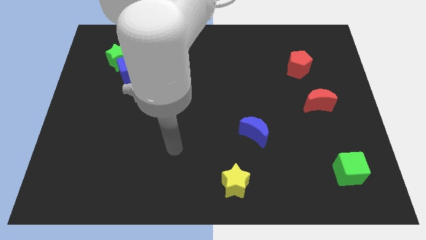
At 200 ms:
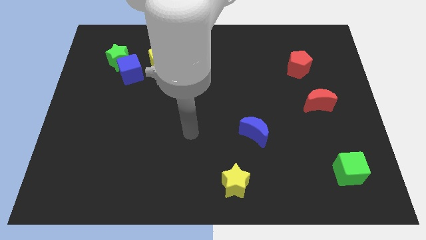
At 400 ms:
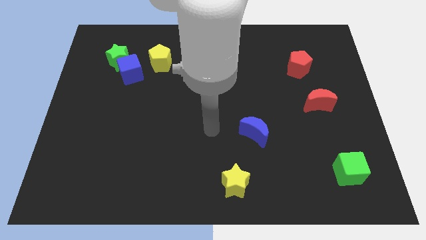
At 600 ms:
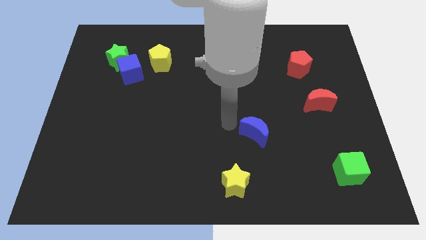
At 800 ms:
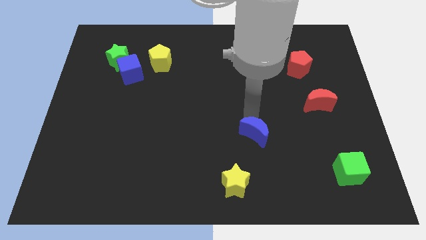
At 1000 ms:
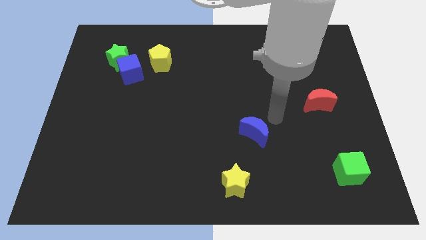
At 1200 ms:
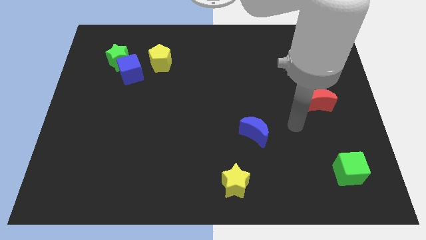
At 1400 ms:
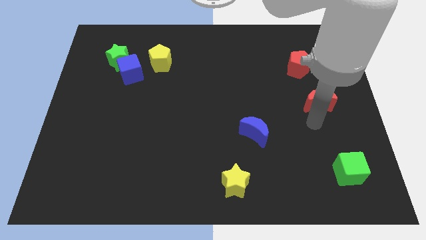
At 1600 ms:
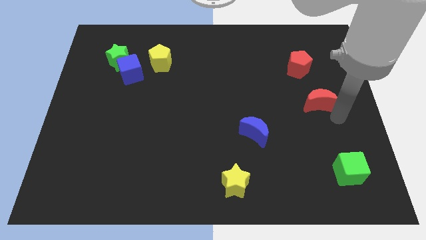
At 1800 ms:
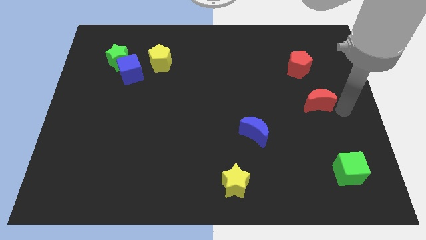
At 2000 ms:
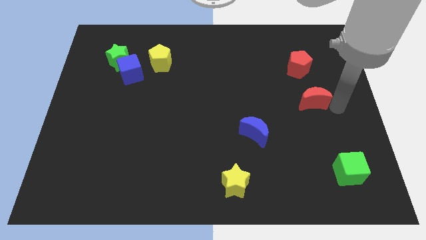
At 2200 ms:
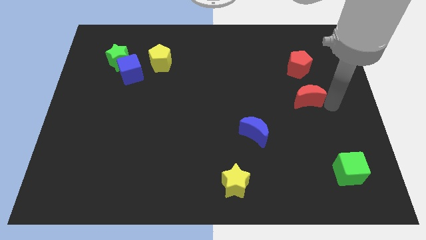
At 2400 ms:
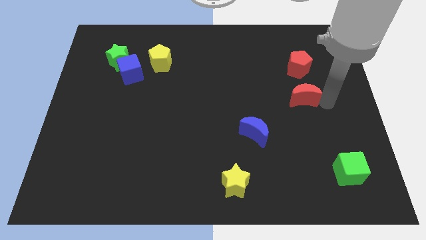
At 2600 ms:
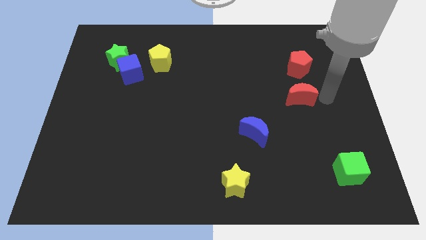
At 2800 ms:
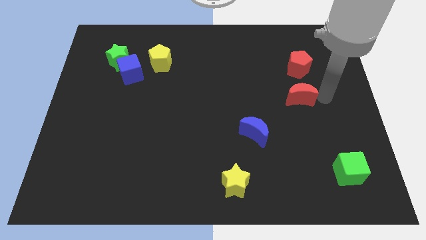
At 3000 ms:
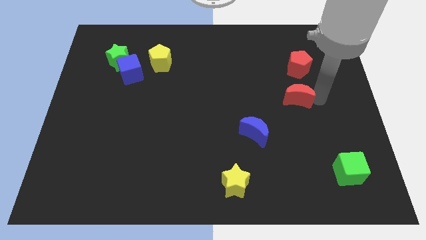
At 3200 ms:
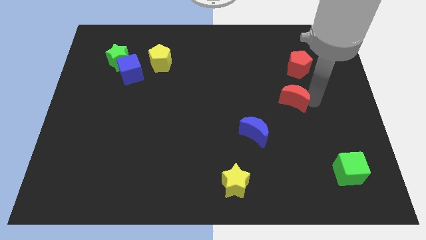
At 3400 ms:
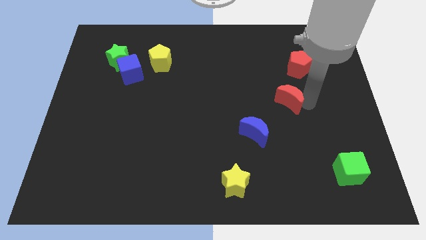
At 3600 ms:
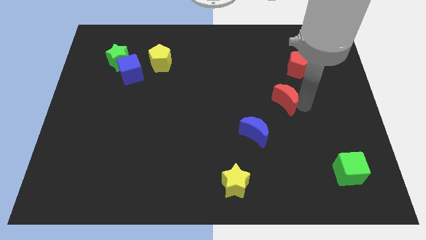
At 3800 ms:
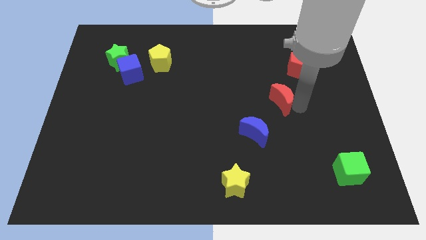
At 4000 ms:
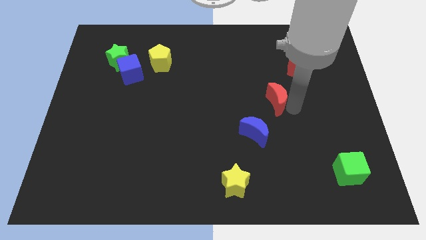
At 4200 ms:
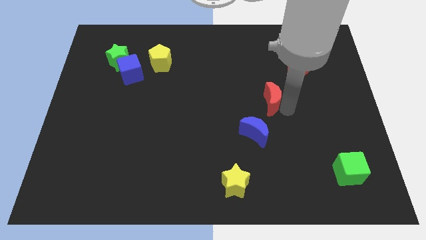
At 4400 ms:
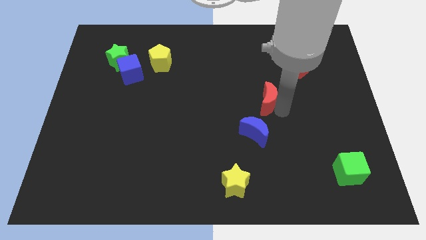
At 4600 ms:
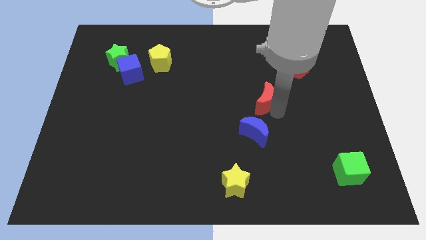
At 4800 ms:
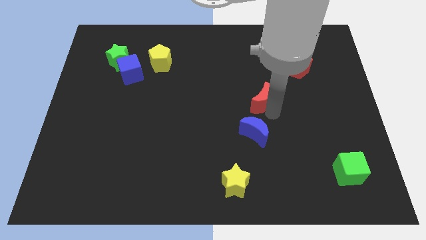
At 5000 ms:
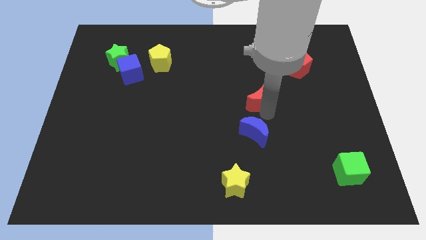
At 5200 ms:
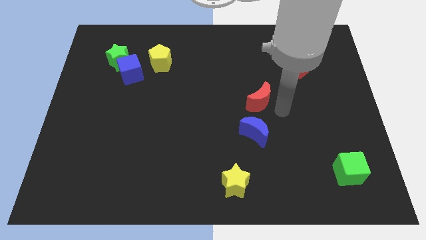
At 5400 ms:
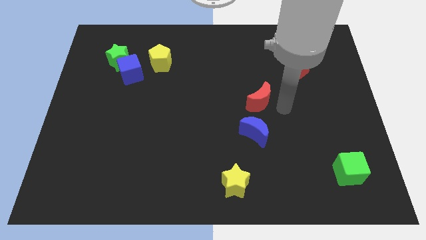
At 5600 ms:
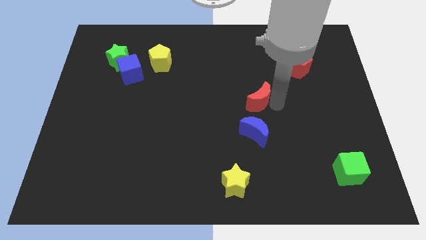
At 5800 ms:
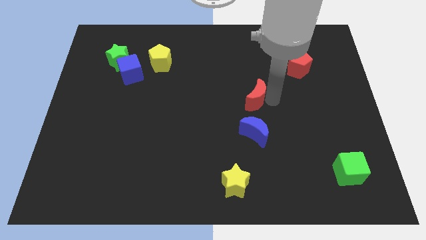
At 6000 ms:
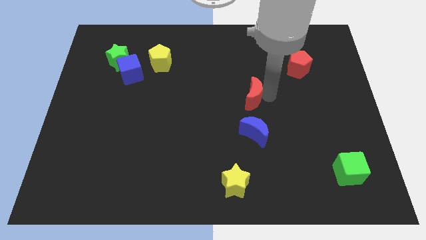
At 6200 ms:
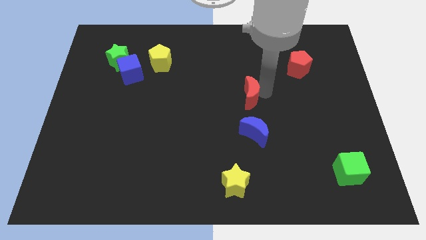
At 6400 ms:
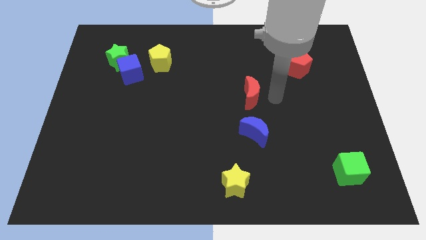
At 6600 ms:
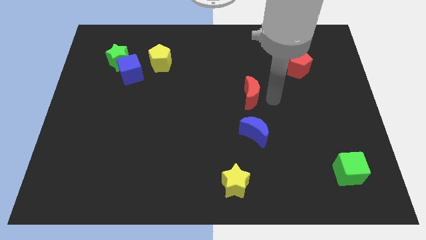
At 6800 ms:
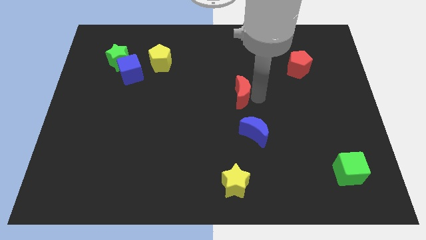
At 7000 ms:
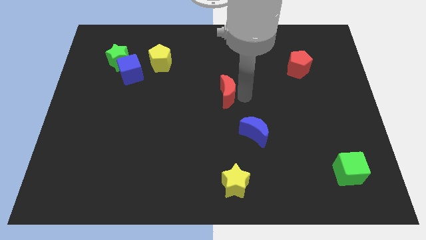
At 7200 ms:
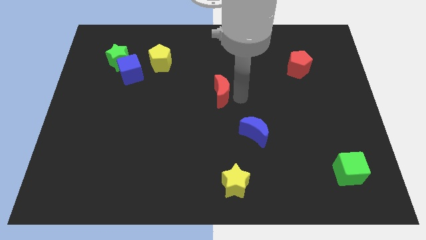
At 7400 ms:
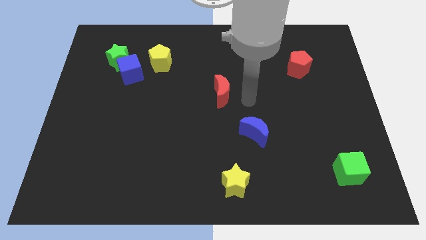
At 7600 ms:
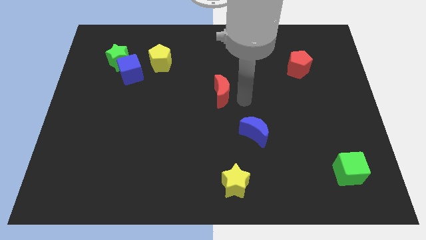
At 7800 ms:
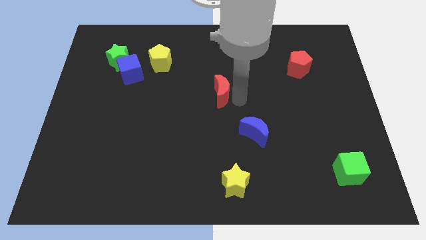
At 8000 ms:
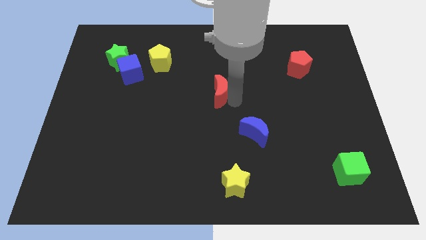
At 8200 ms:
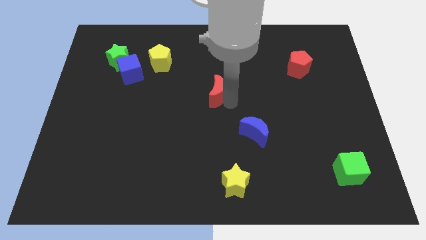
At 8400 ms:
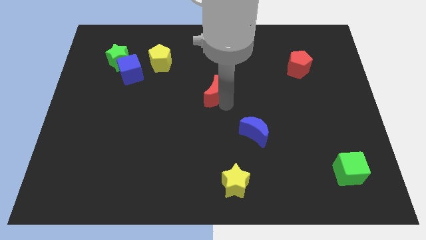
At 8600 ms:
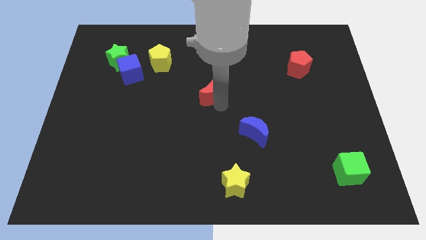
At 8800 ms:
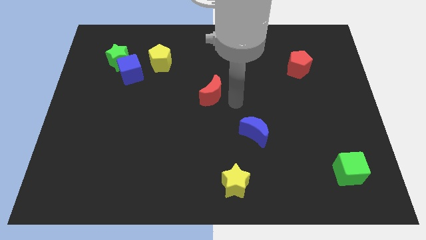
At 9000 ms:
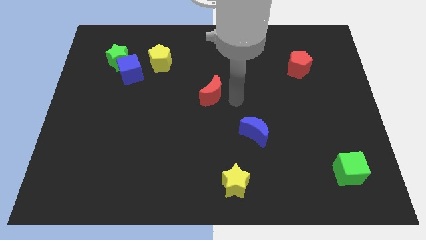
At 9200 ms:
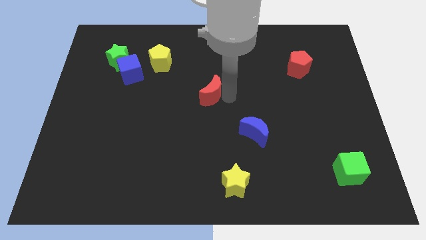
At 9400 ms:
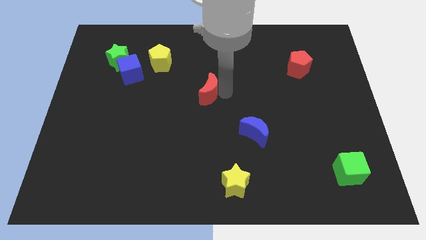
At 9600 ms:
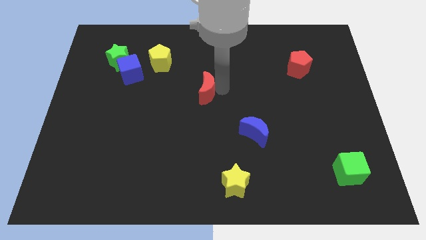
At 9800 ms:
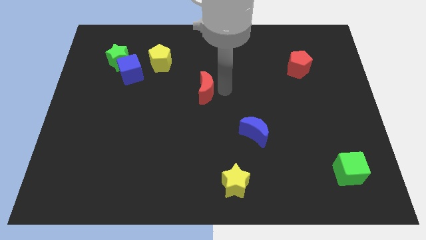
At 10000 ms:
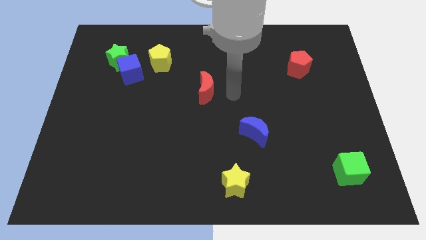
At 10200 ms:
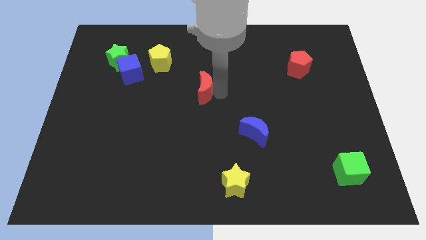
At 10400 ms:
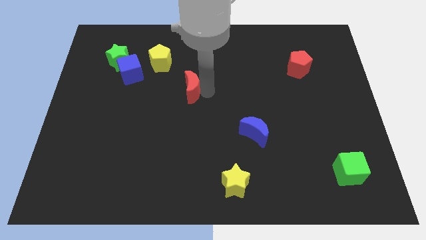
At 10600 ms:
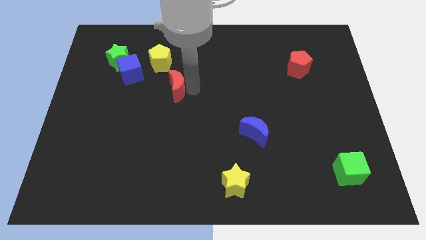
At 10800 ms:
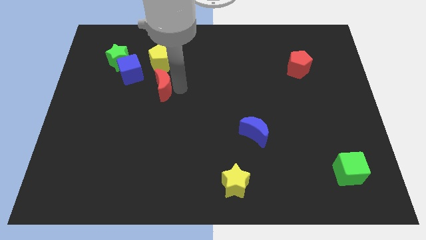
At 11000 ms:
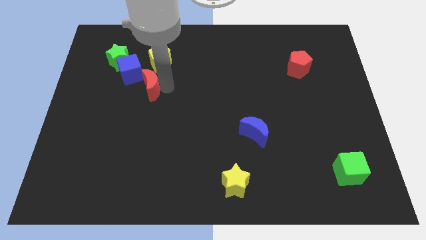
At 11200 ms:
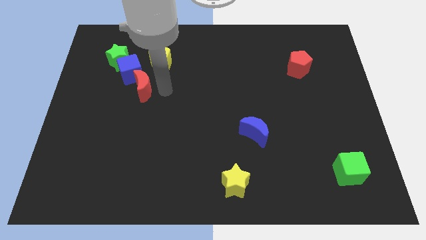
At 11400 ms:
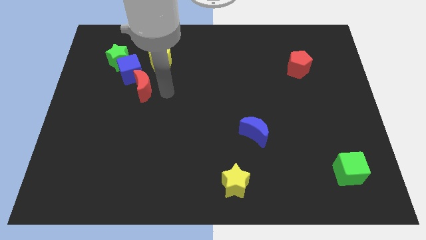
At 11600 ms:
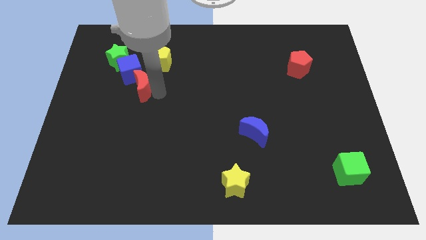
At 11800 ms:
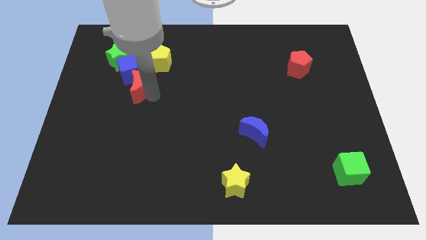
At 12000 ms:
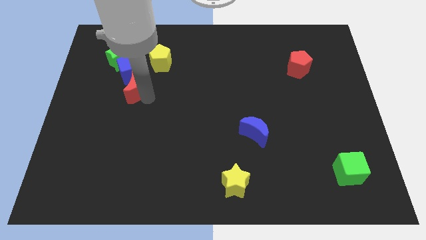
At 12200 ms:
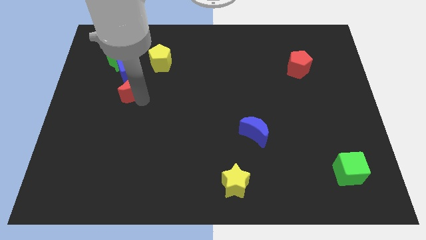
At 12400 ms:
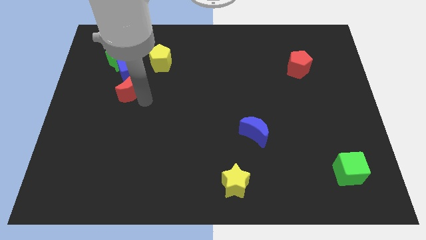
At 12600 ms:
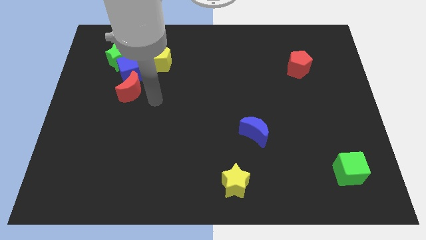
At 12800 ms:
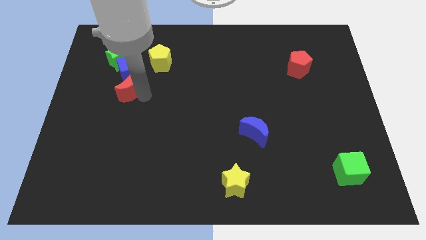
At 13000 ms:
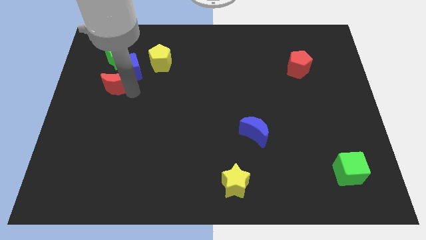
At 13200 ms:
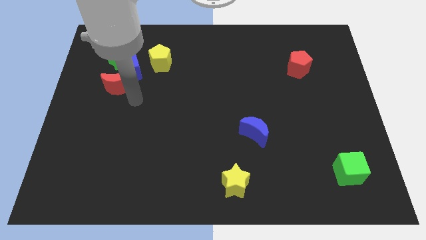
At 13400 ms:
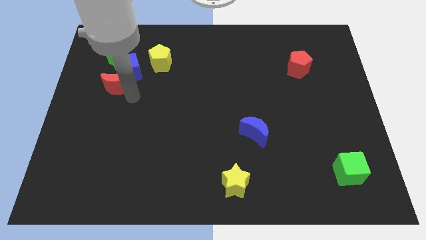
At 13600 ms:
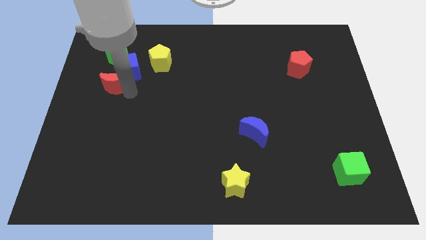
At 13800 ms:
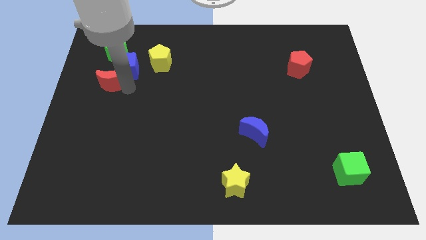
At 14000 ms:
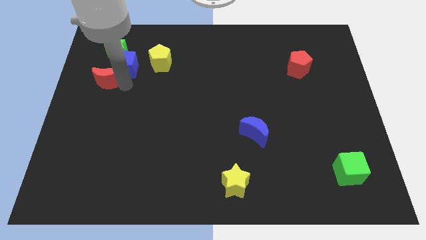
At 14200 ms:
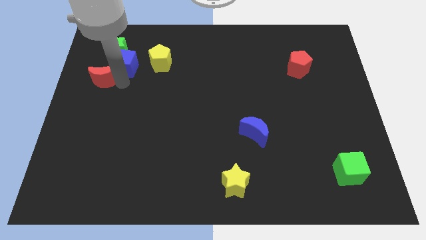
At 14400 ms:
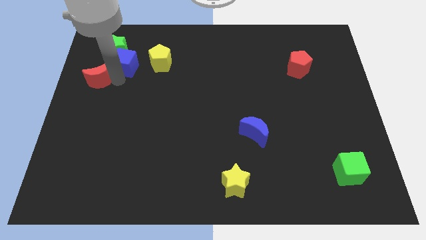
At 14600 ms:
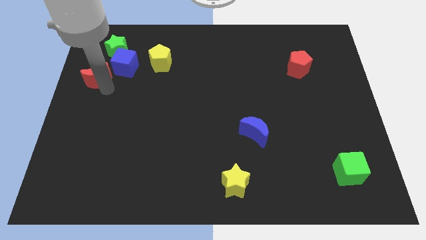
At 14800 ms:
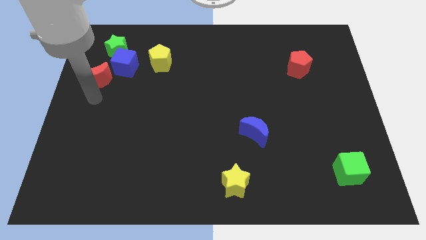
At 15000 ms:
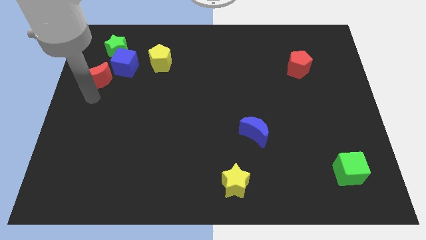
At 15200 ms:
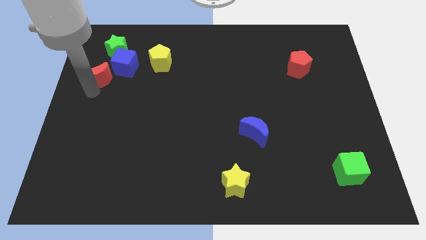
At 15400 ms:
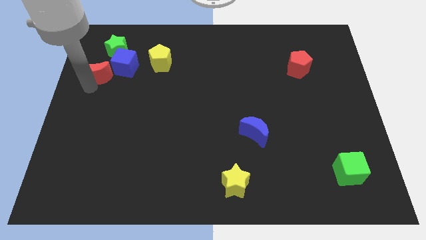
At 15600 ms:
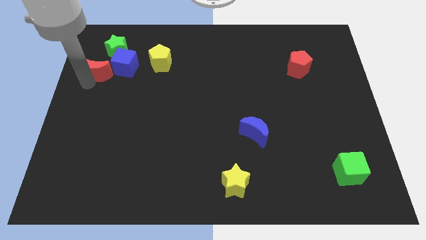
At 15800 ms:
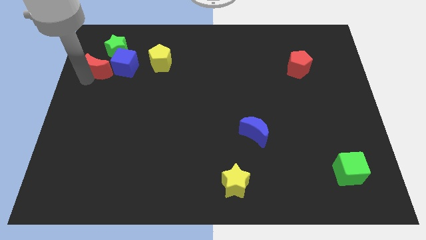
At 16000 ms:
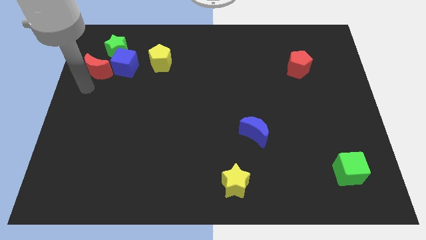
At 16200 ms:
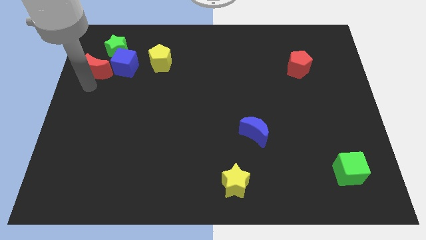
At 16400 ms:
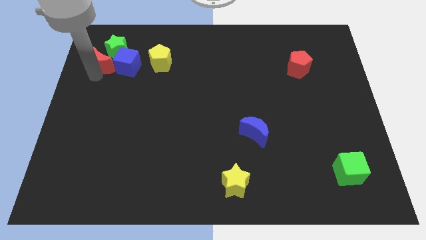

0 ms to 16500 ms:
push the red moon diagonally up and to the left of the blue cube
